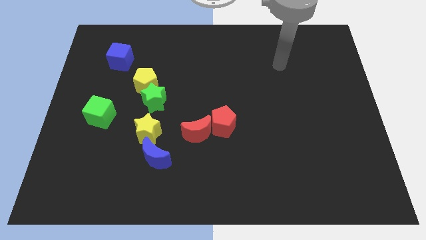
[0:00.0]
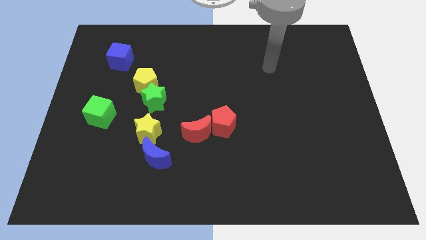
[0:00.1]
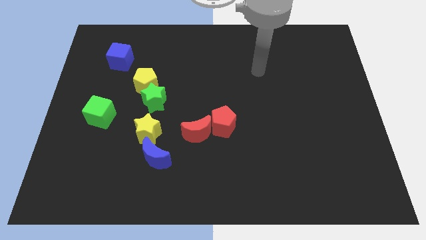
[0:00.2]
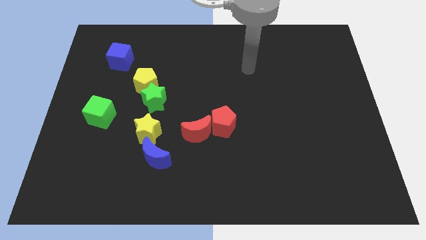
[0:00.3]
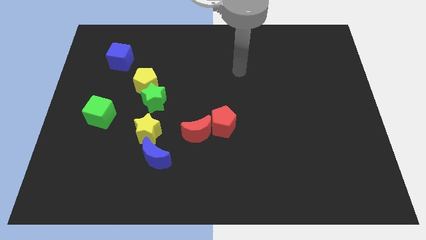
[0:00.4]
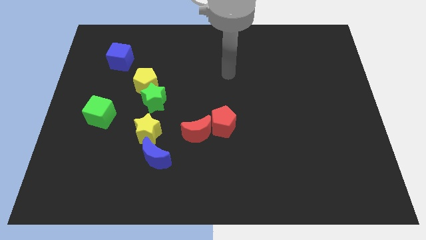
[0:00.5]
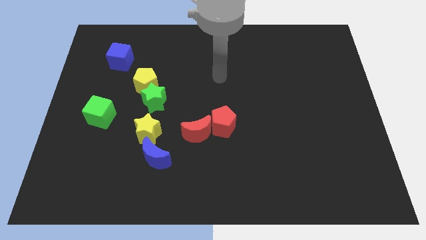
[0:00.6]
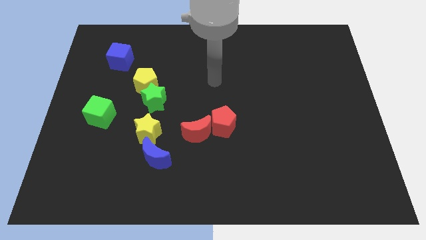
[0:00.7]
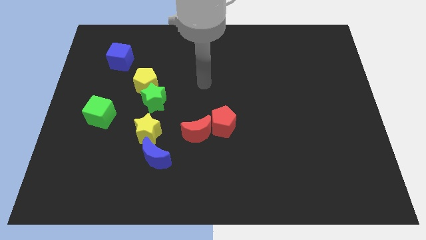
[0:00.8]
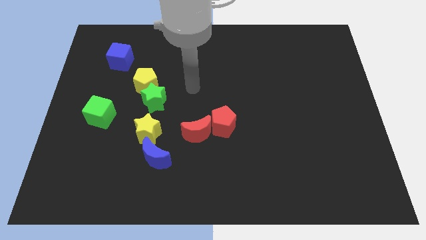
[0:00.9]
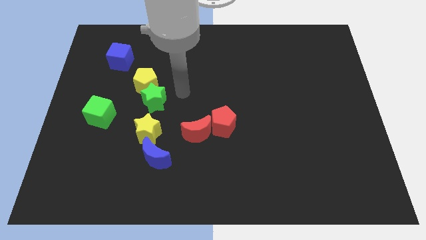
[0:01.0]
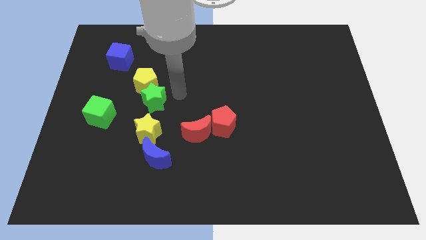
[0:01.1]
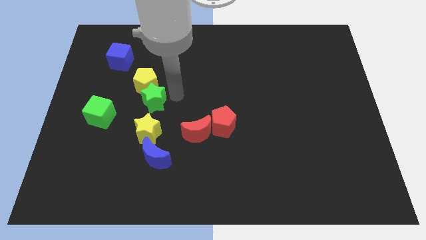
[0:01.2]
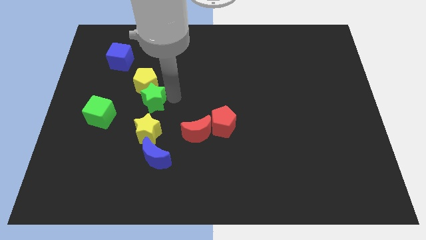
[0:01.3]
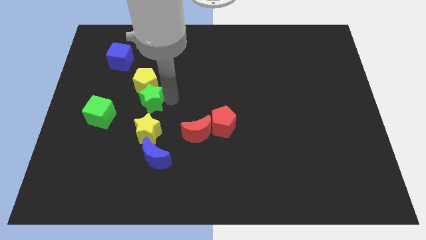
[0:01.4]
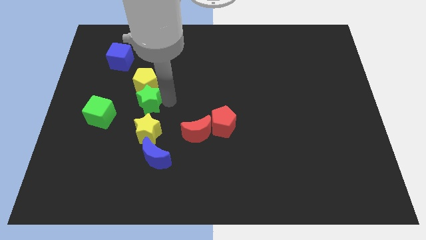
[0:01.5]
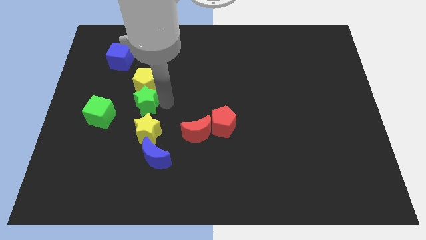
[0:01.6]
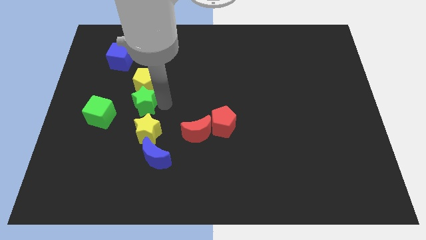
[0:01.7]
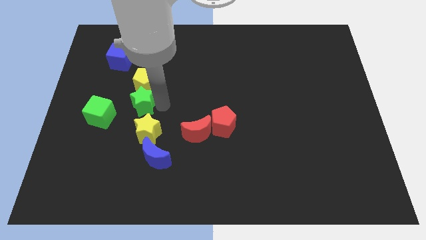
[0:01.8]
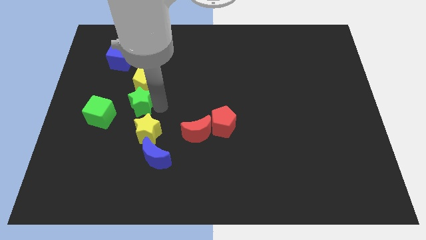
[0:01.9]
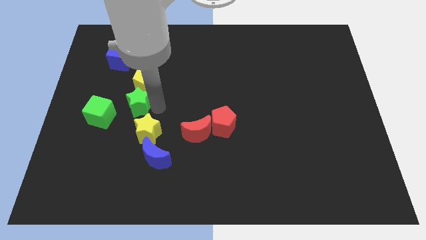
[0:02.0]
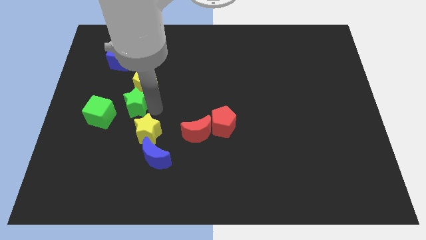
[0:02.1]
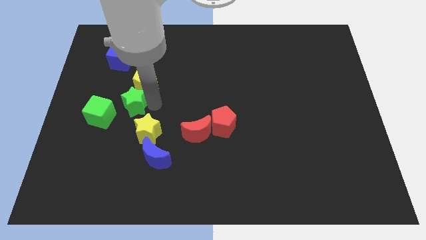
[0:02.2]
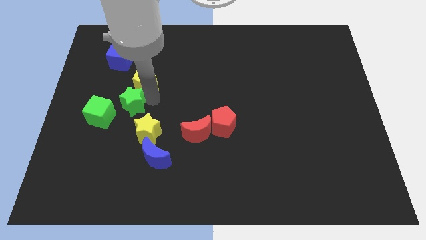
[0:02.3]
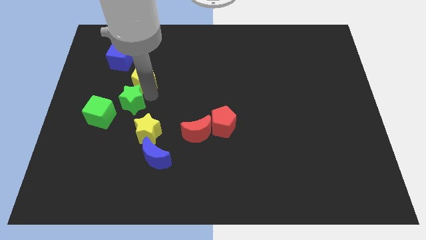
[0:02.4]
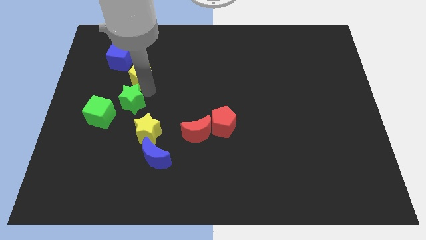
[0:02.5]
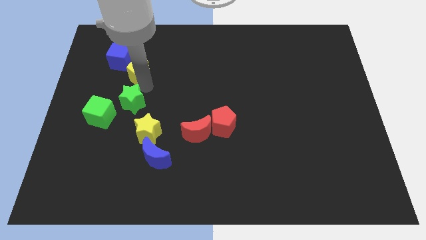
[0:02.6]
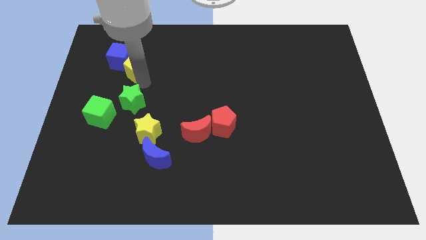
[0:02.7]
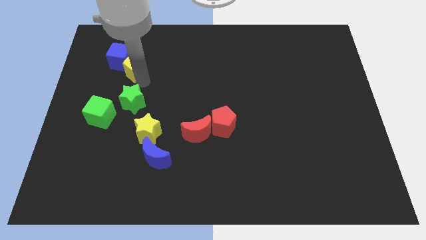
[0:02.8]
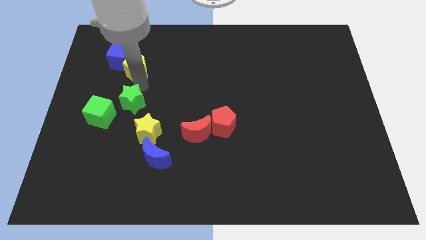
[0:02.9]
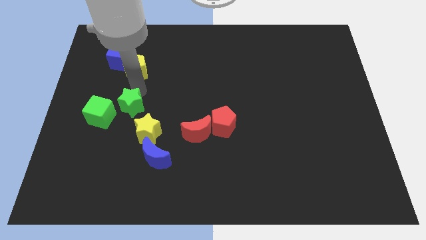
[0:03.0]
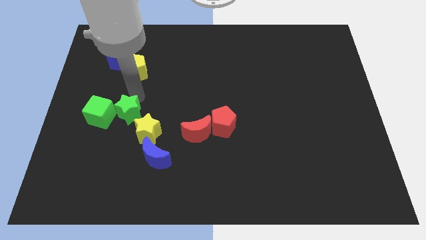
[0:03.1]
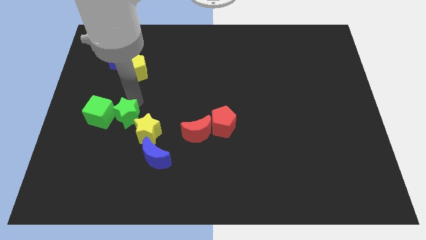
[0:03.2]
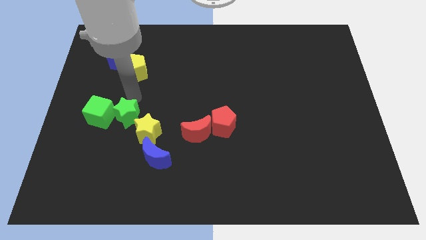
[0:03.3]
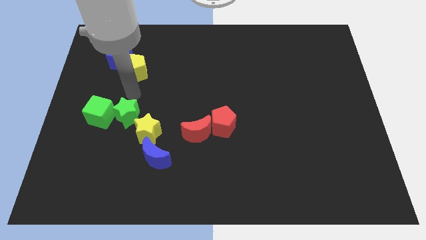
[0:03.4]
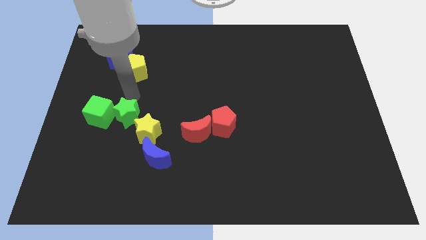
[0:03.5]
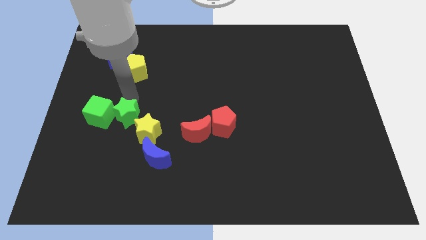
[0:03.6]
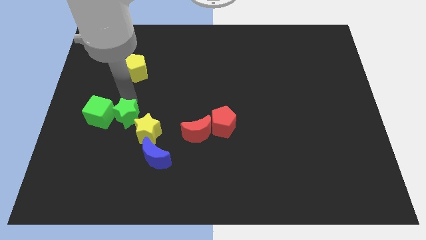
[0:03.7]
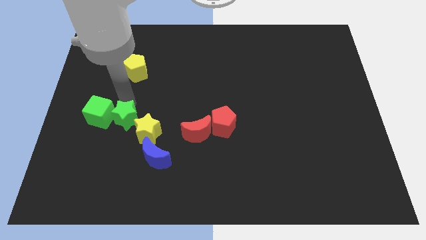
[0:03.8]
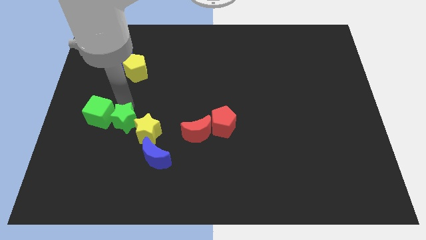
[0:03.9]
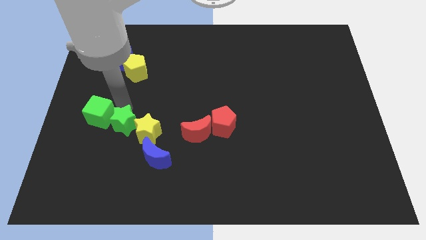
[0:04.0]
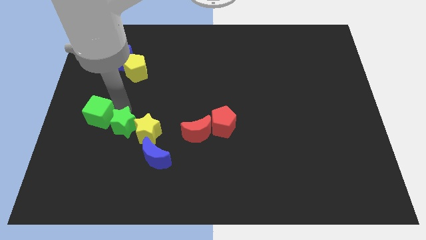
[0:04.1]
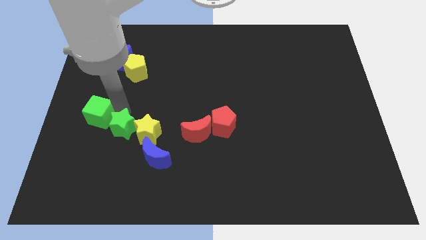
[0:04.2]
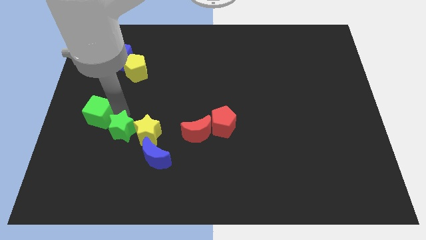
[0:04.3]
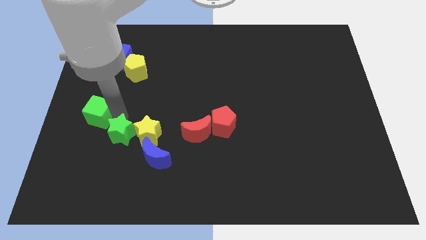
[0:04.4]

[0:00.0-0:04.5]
slightly slide the green star down

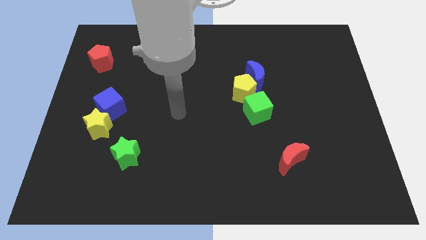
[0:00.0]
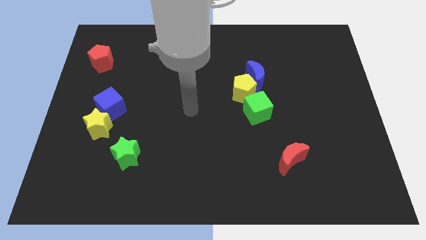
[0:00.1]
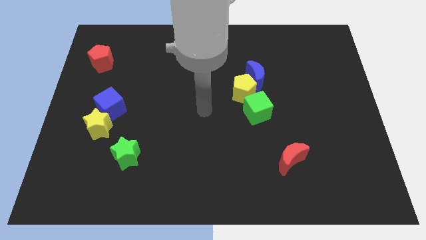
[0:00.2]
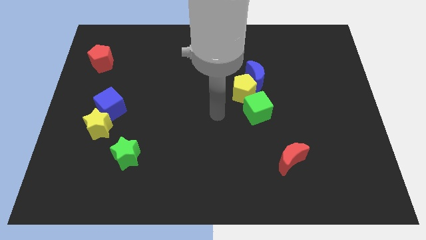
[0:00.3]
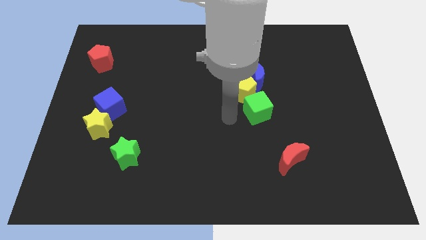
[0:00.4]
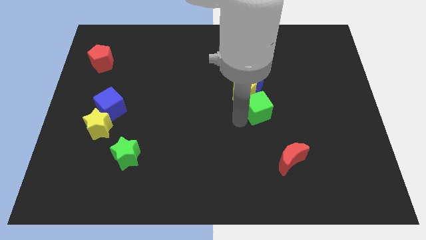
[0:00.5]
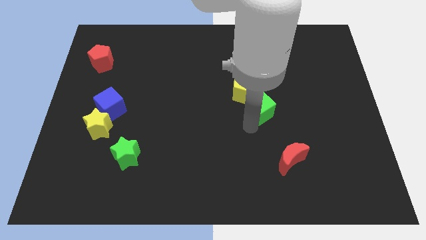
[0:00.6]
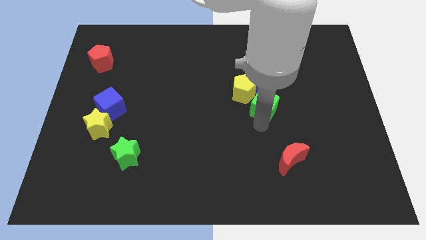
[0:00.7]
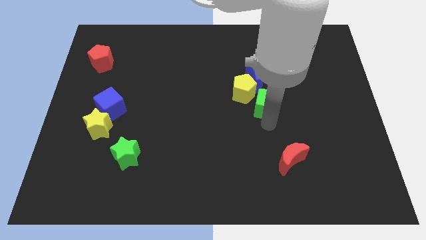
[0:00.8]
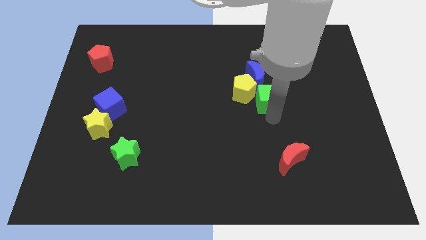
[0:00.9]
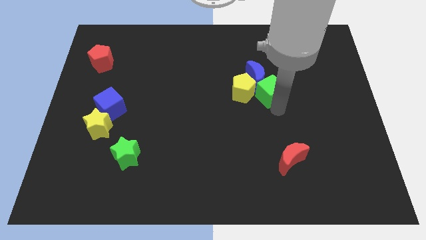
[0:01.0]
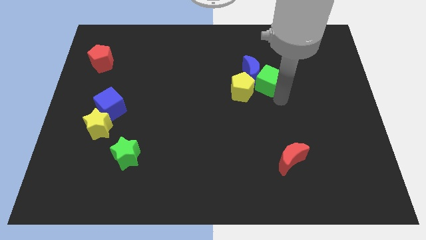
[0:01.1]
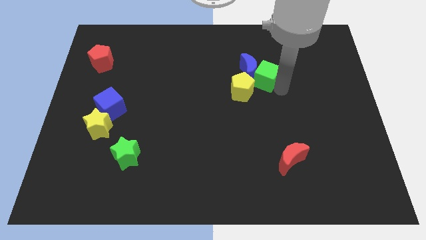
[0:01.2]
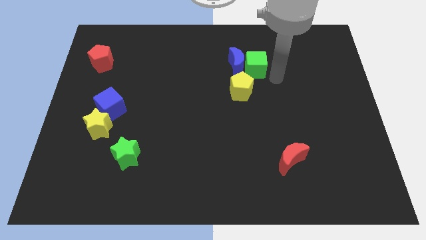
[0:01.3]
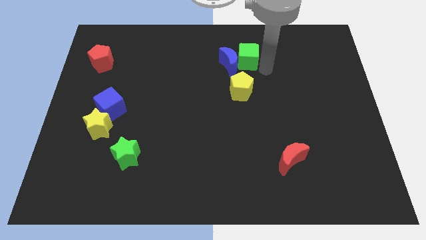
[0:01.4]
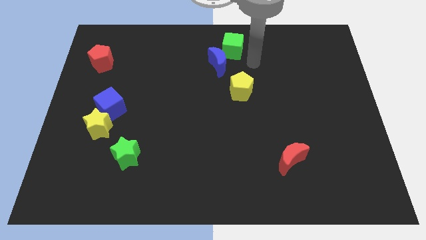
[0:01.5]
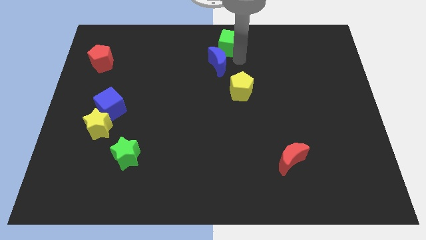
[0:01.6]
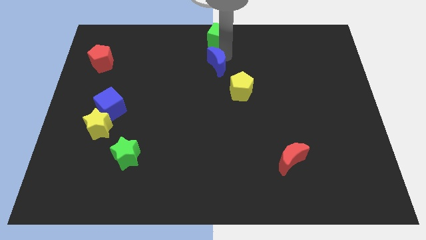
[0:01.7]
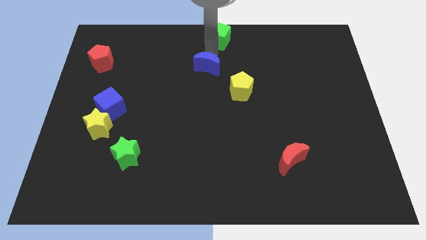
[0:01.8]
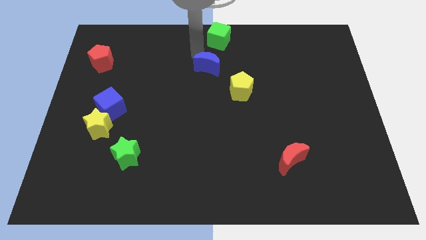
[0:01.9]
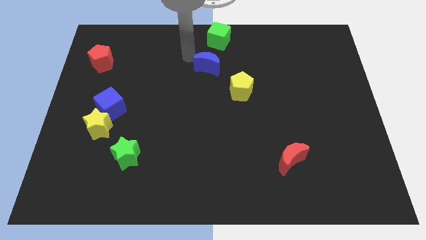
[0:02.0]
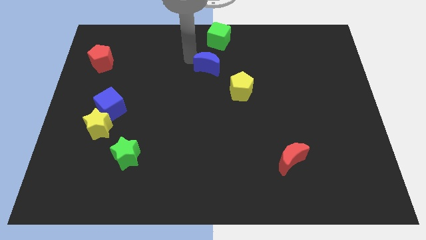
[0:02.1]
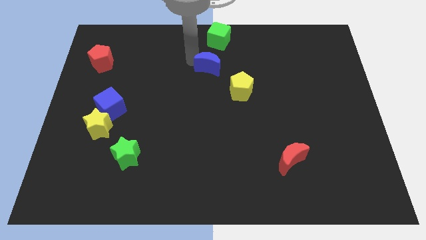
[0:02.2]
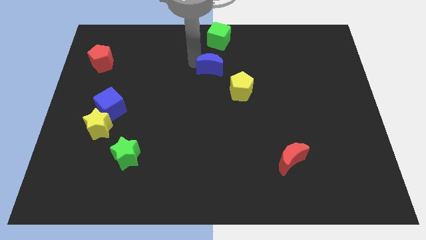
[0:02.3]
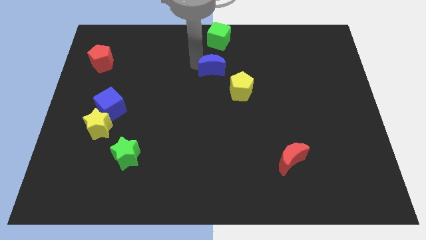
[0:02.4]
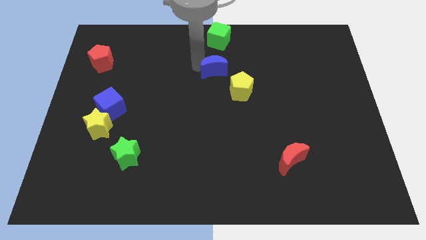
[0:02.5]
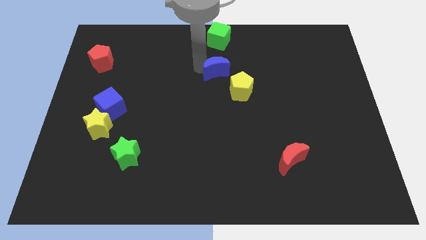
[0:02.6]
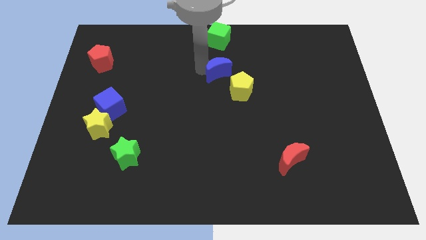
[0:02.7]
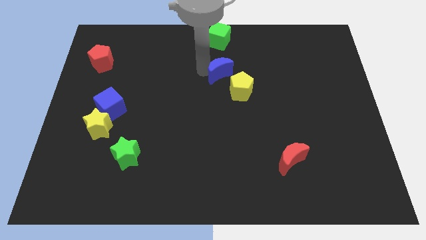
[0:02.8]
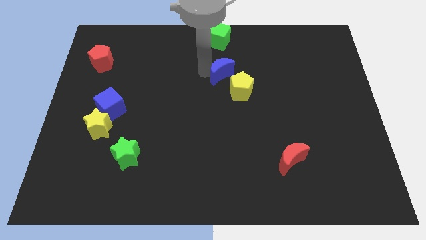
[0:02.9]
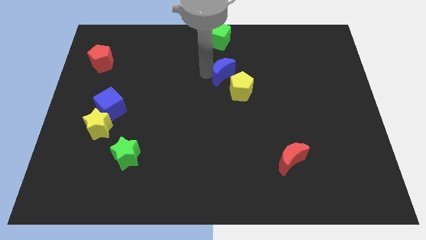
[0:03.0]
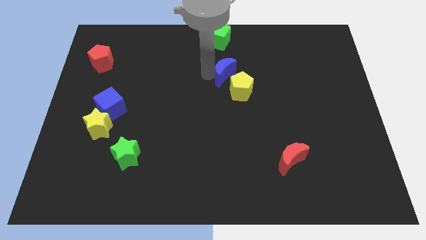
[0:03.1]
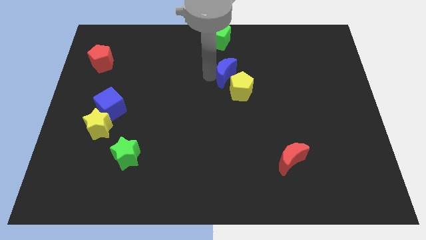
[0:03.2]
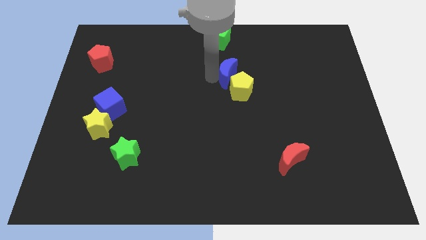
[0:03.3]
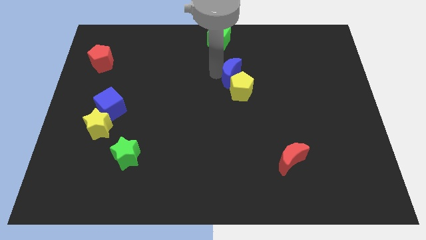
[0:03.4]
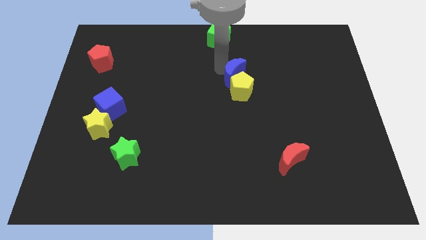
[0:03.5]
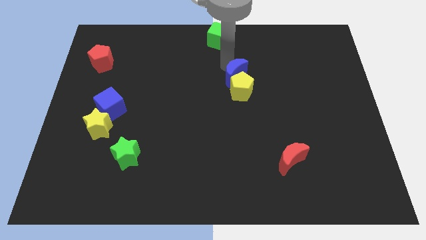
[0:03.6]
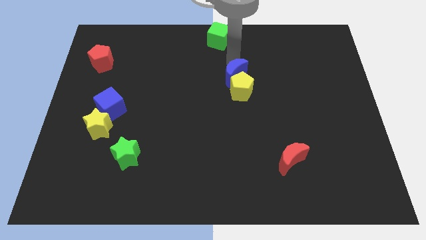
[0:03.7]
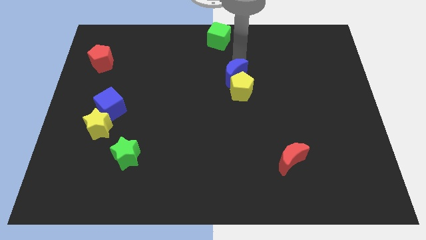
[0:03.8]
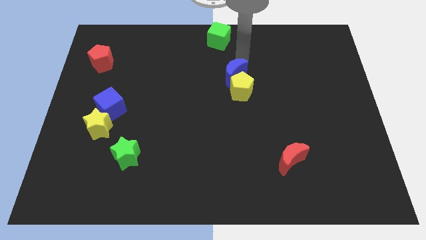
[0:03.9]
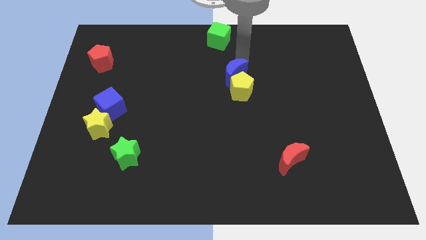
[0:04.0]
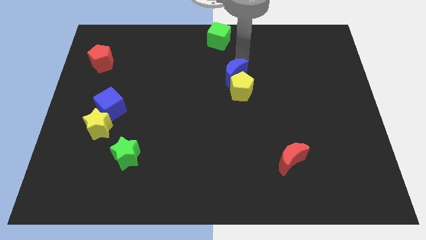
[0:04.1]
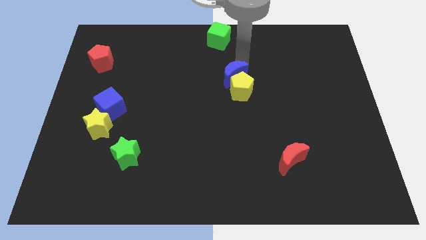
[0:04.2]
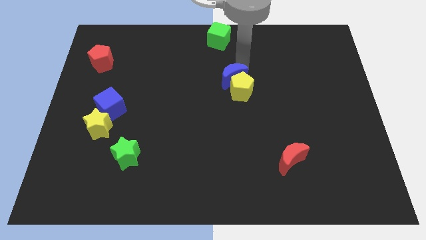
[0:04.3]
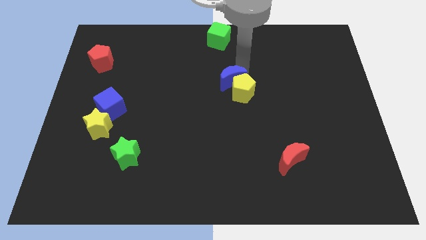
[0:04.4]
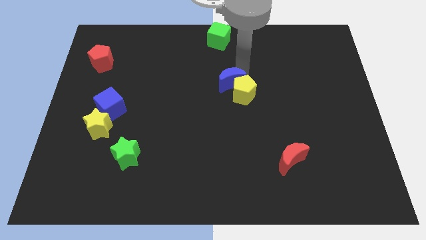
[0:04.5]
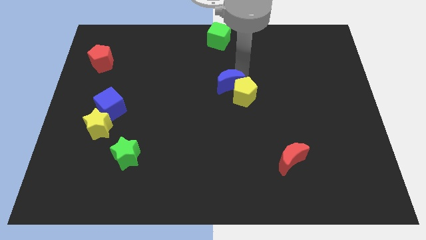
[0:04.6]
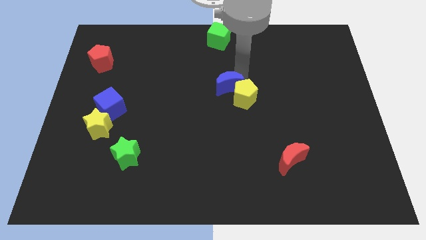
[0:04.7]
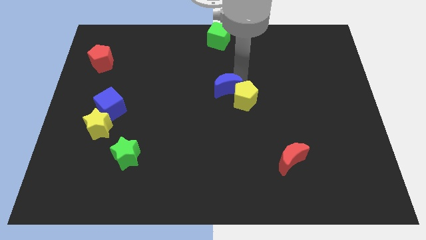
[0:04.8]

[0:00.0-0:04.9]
slide the blue moon a little diagonally down and to the left
